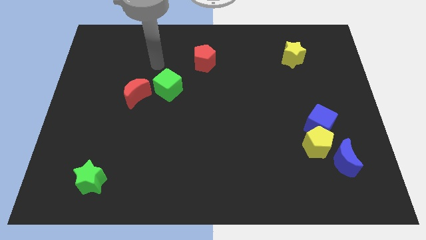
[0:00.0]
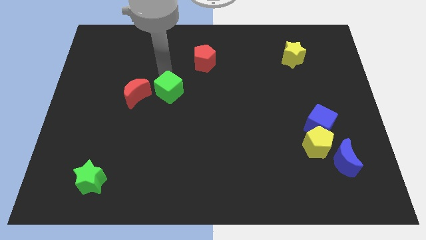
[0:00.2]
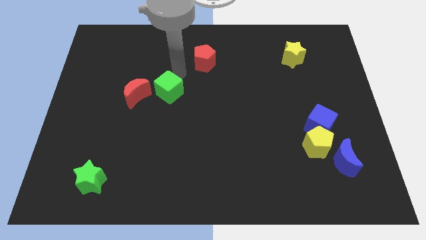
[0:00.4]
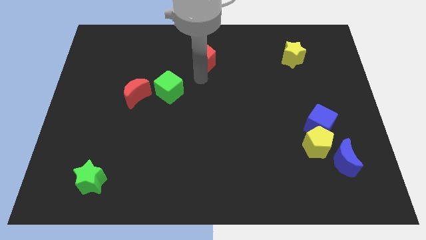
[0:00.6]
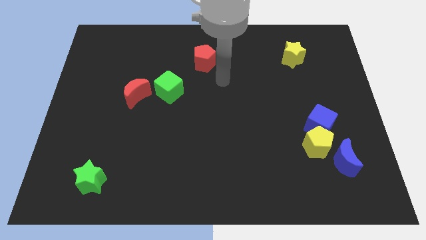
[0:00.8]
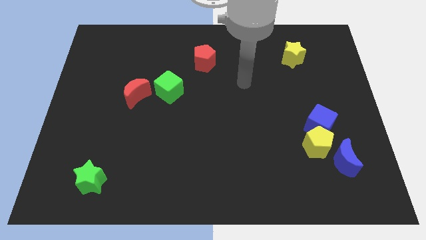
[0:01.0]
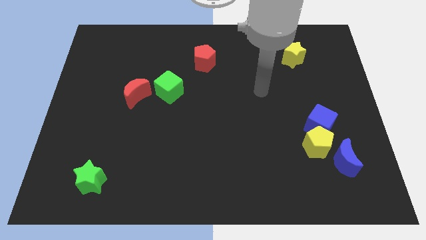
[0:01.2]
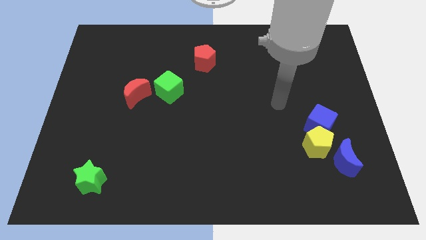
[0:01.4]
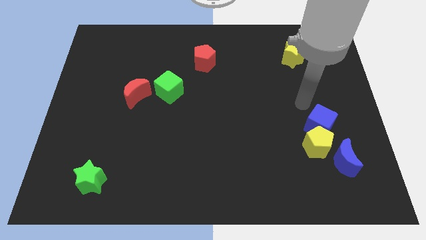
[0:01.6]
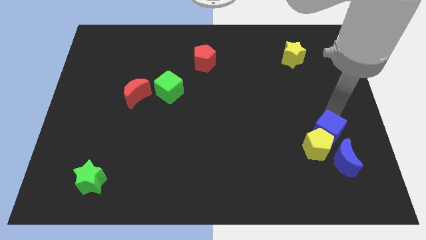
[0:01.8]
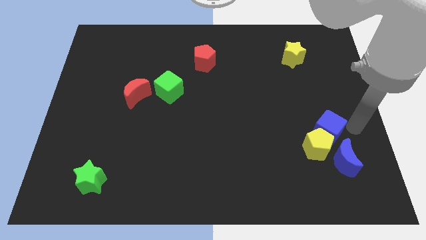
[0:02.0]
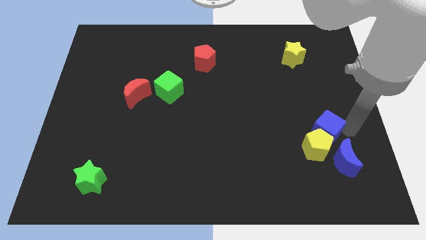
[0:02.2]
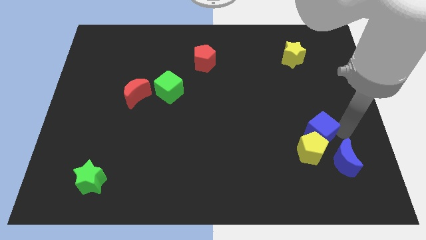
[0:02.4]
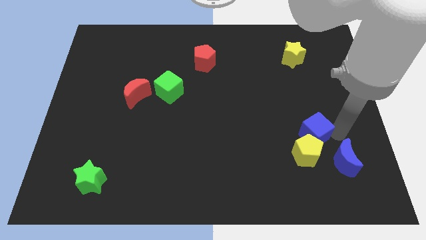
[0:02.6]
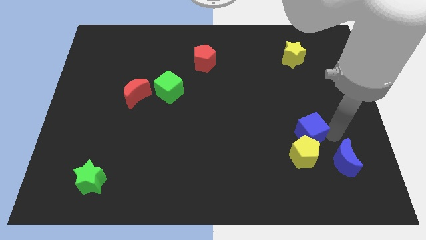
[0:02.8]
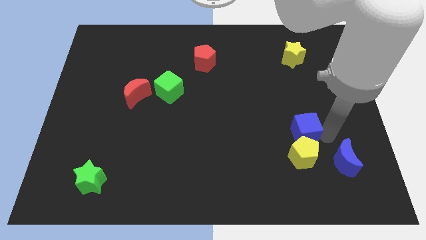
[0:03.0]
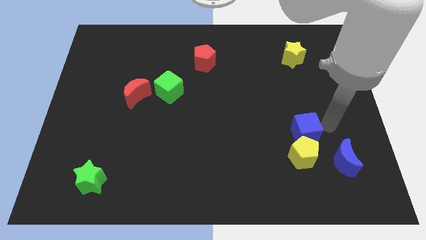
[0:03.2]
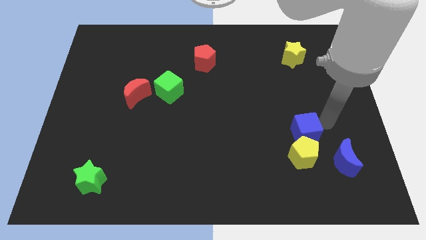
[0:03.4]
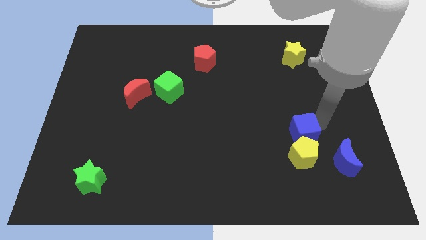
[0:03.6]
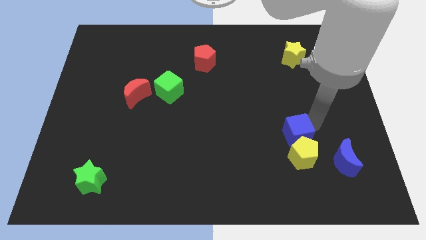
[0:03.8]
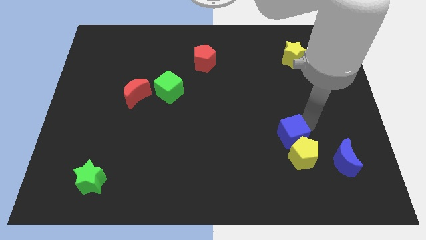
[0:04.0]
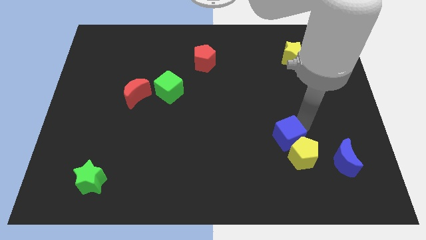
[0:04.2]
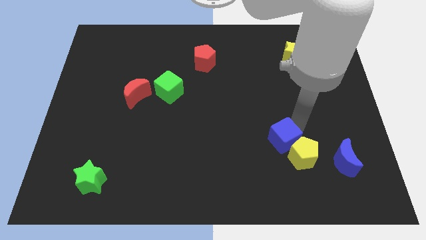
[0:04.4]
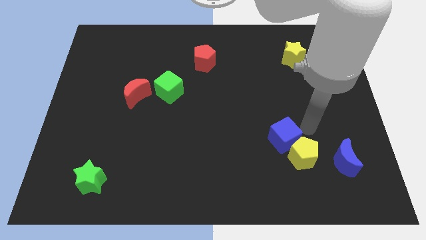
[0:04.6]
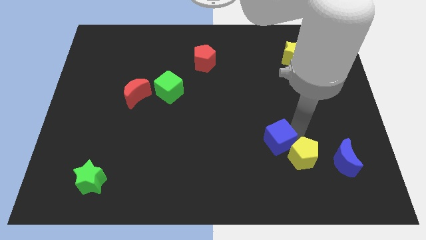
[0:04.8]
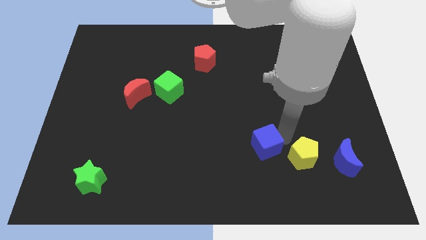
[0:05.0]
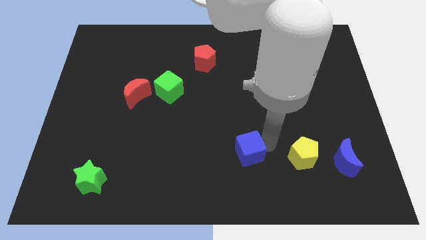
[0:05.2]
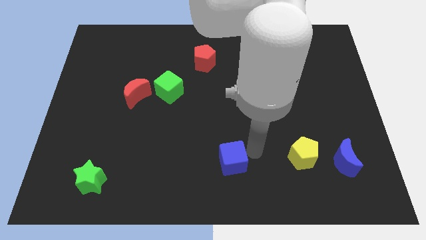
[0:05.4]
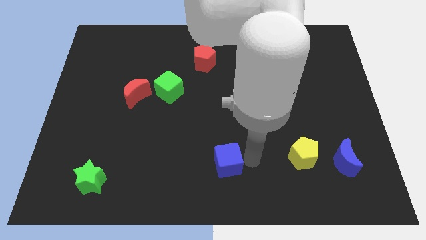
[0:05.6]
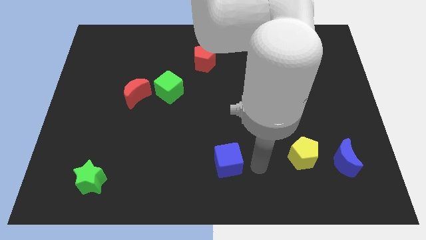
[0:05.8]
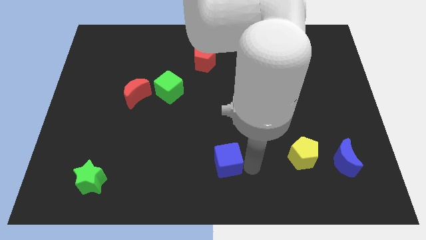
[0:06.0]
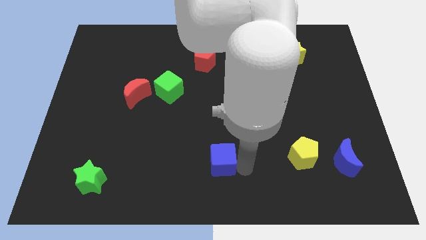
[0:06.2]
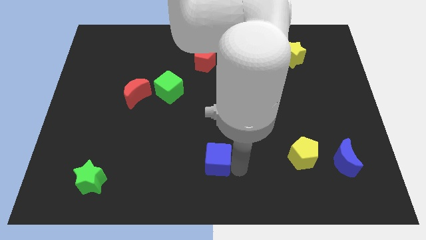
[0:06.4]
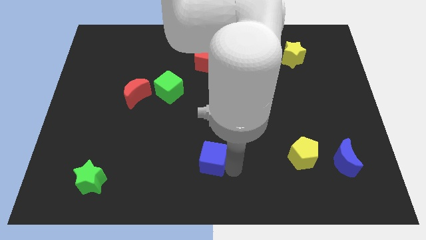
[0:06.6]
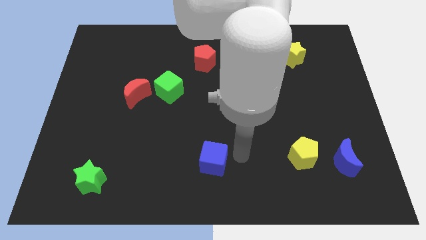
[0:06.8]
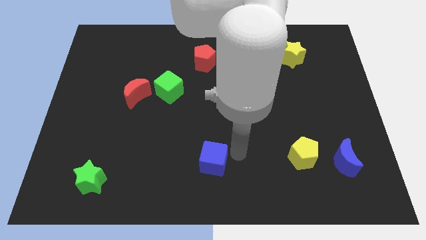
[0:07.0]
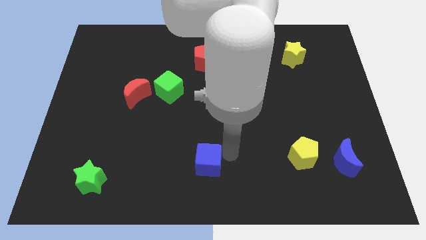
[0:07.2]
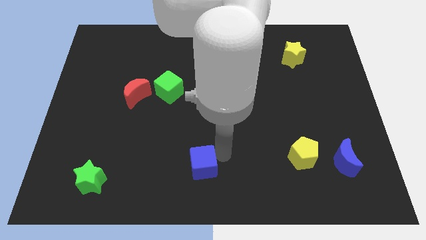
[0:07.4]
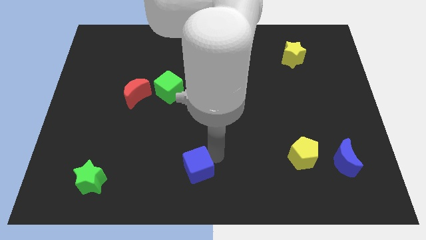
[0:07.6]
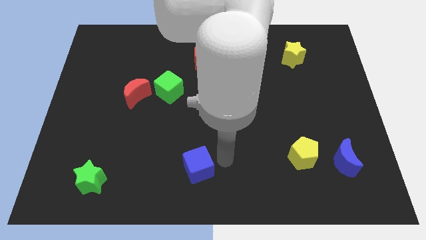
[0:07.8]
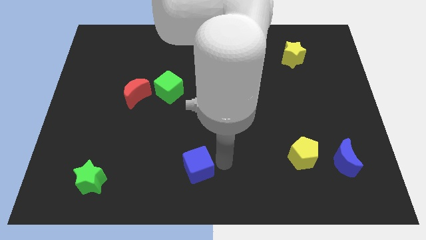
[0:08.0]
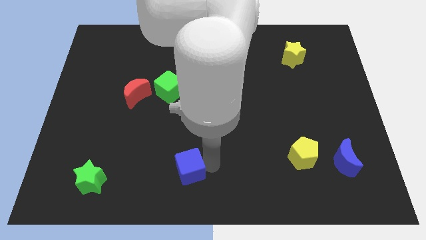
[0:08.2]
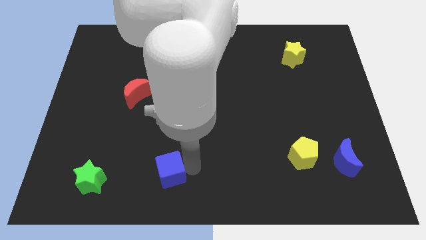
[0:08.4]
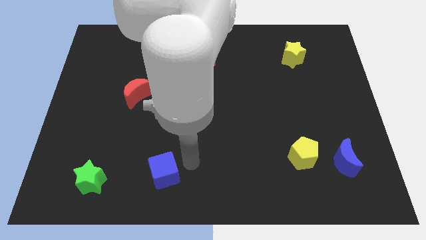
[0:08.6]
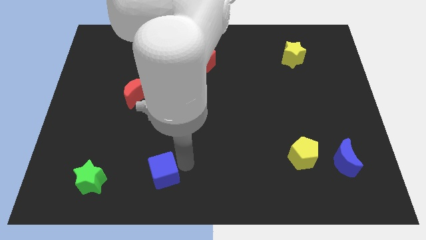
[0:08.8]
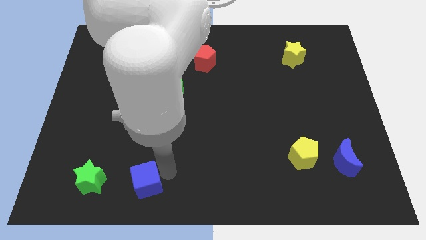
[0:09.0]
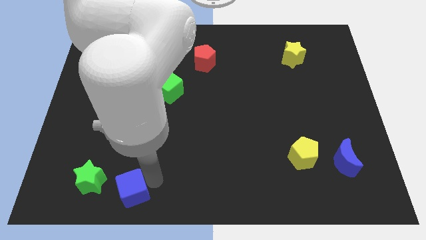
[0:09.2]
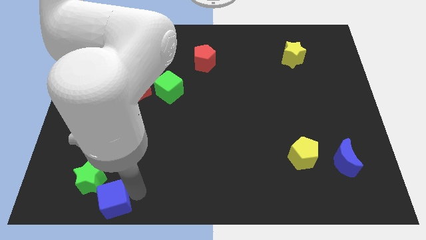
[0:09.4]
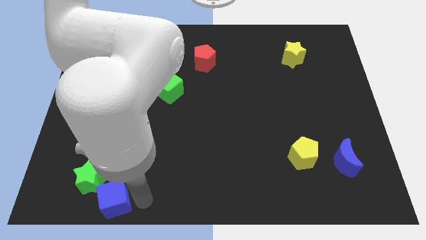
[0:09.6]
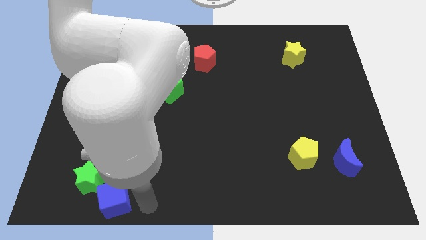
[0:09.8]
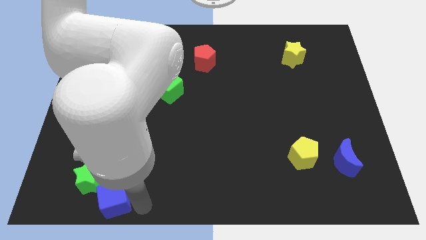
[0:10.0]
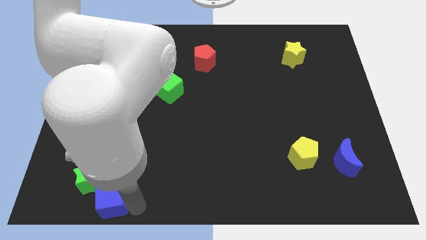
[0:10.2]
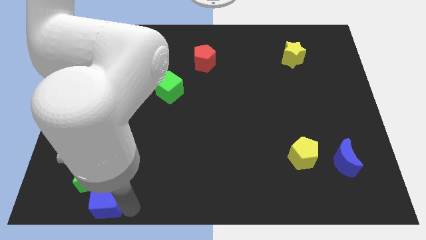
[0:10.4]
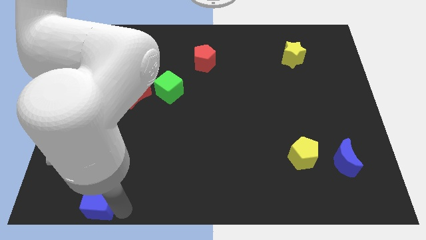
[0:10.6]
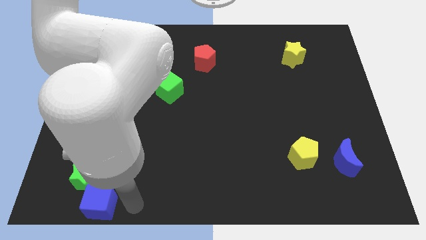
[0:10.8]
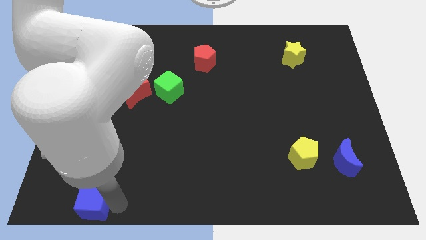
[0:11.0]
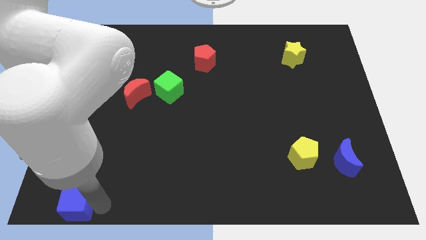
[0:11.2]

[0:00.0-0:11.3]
move the blue cube to the lower left corner
